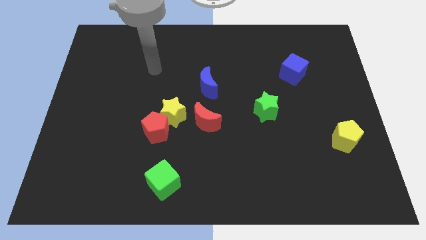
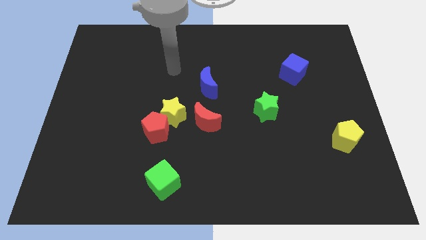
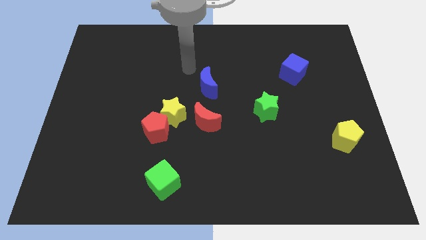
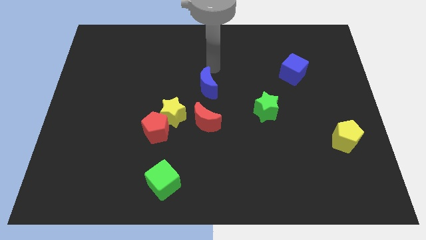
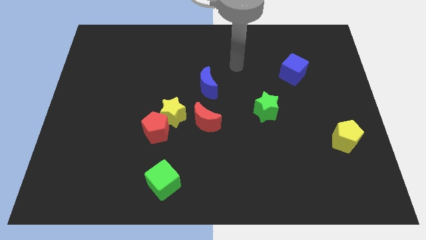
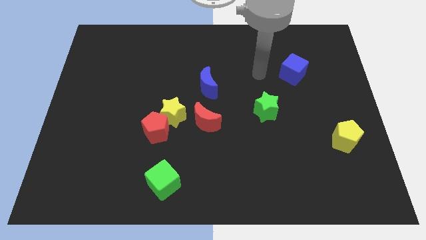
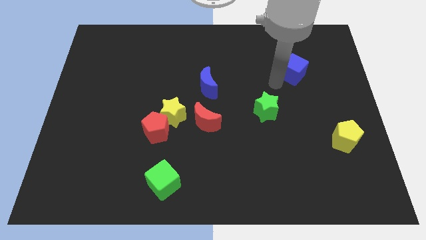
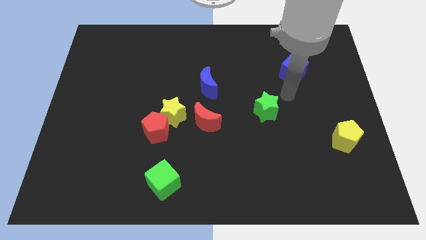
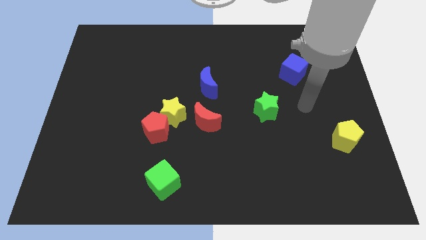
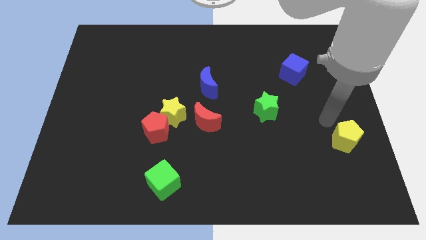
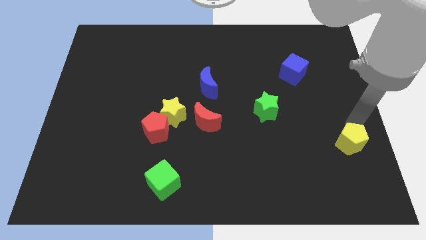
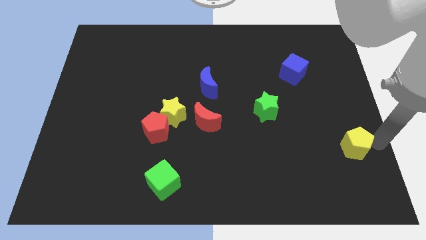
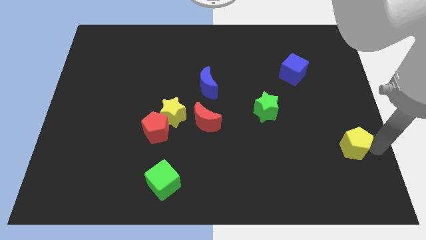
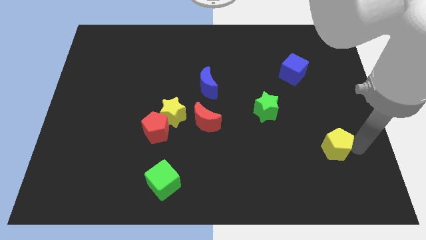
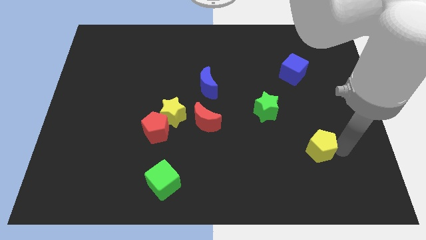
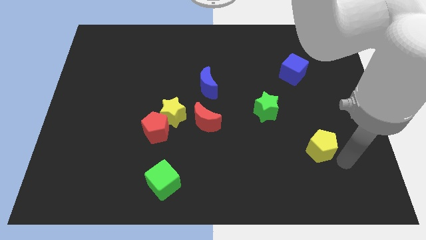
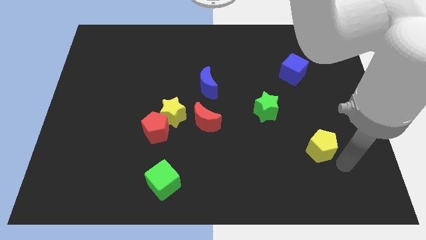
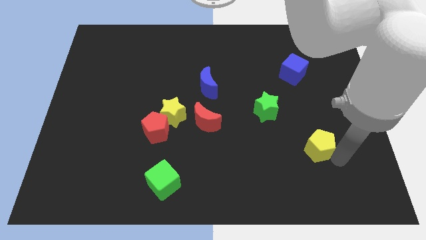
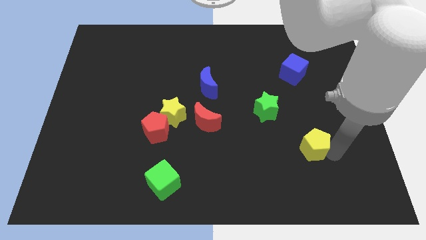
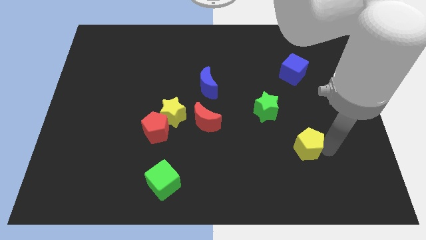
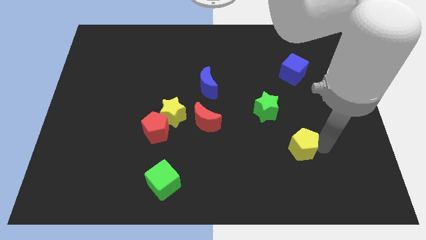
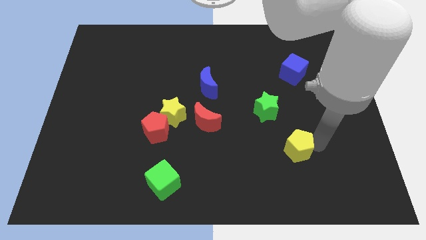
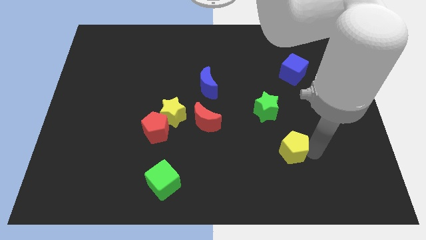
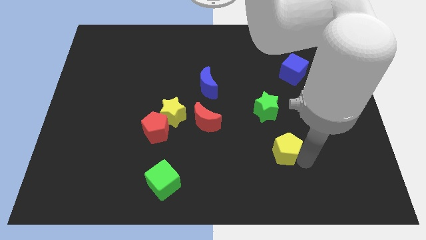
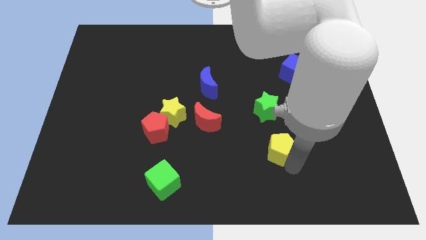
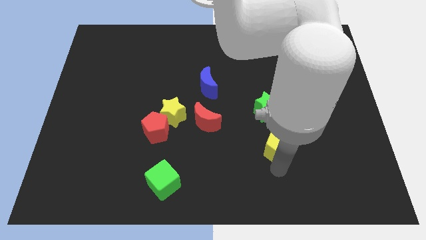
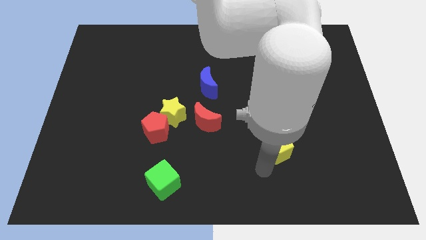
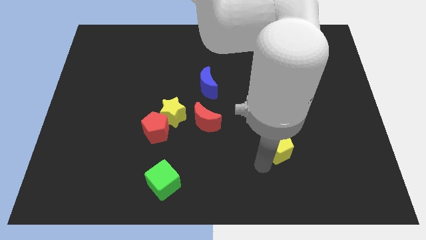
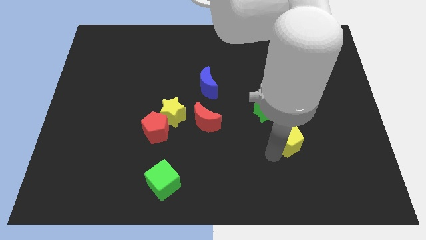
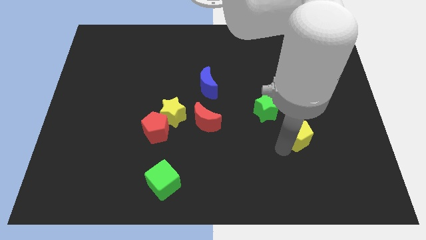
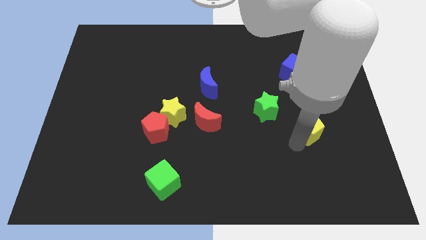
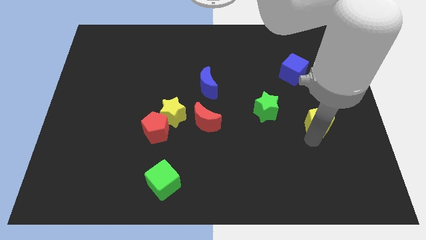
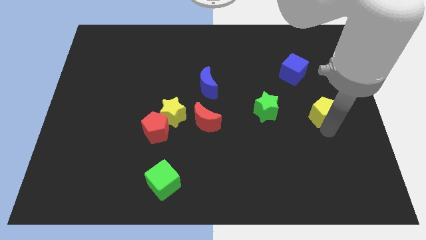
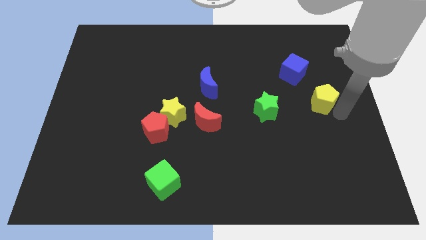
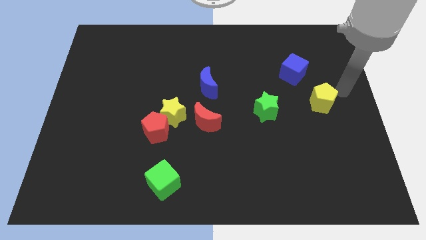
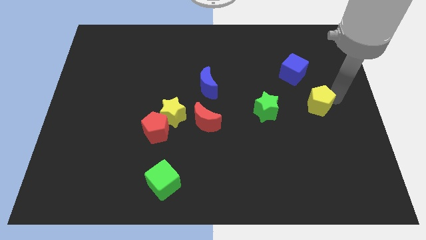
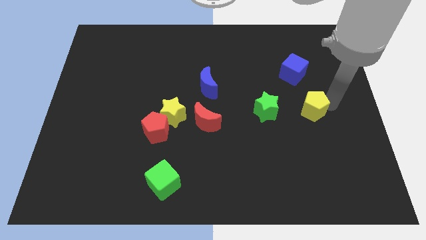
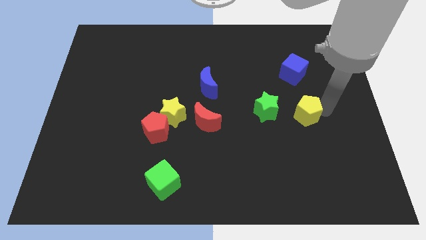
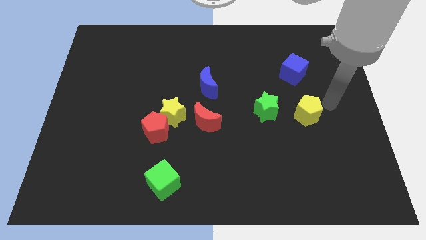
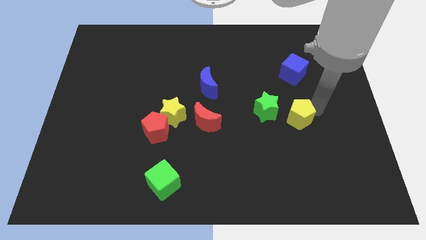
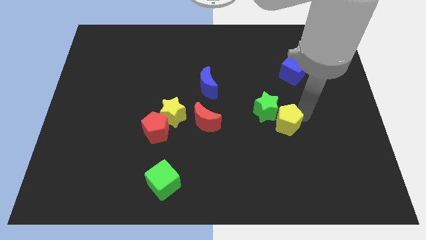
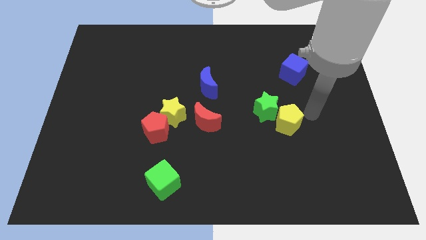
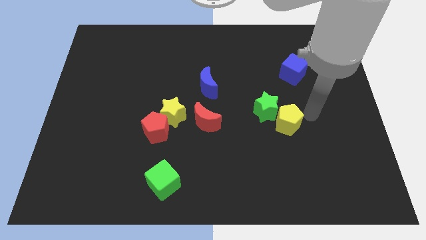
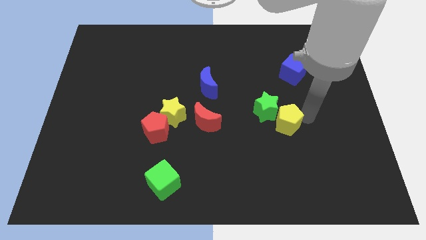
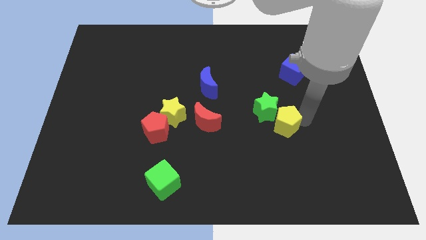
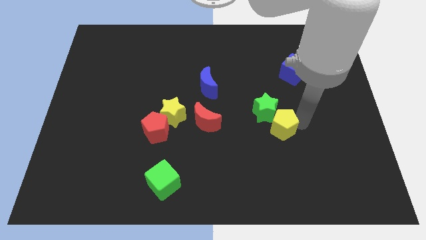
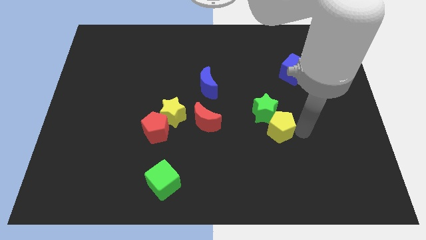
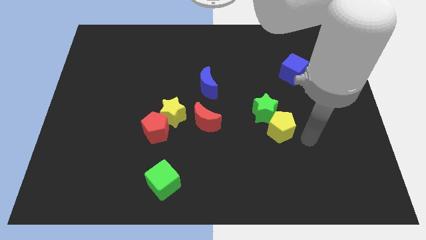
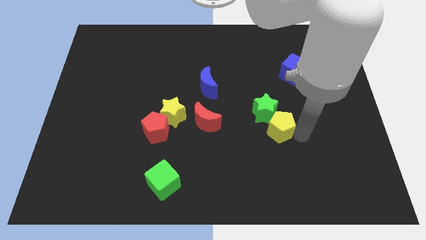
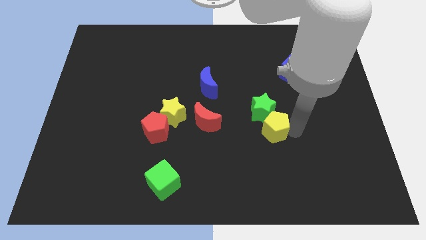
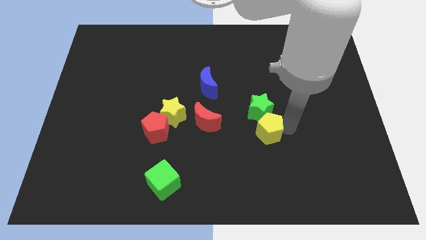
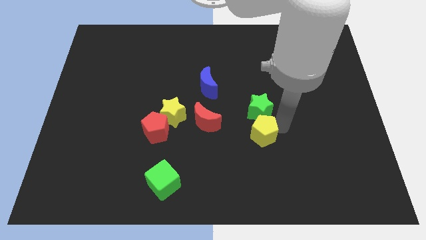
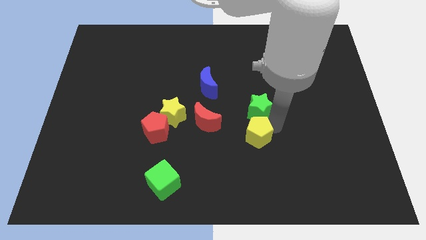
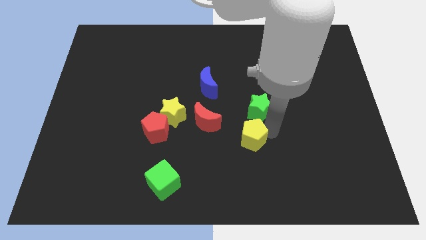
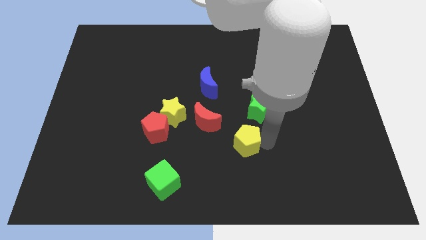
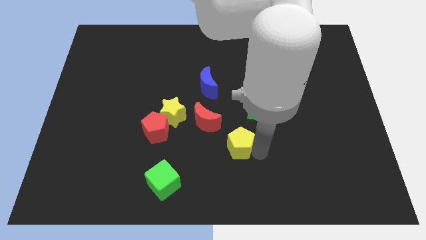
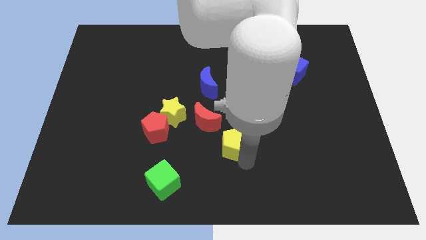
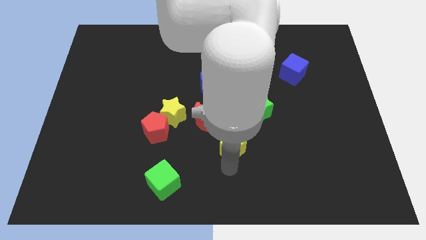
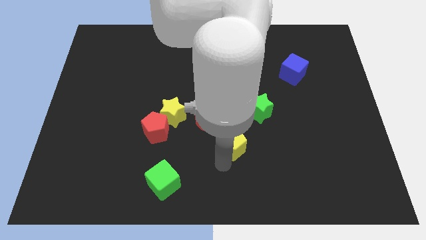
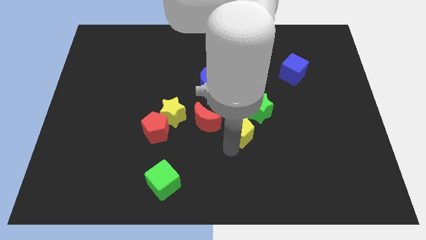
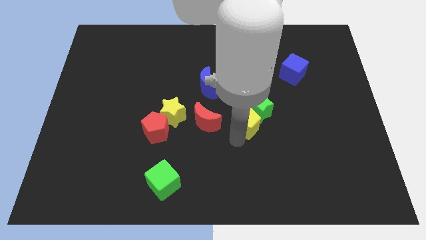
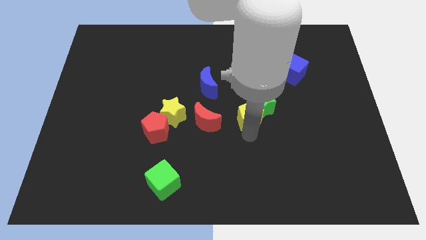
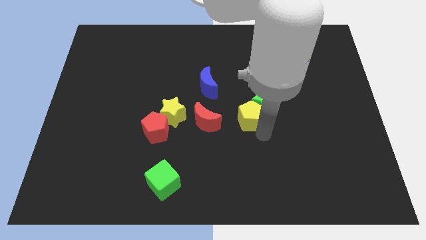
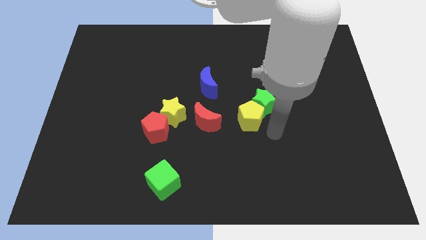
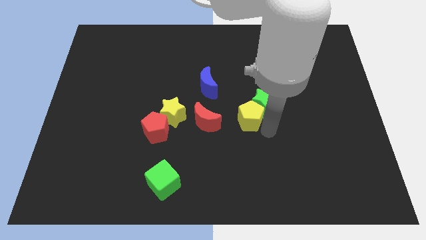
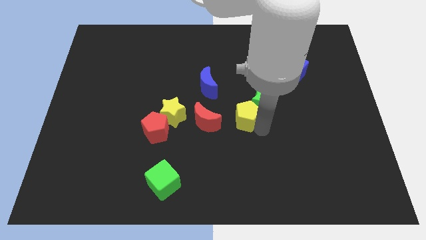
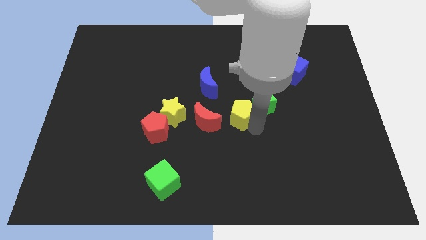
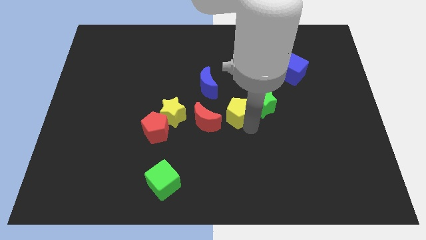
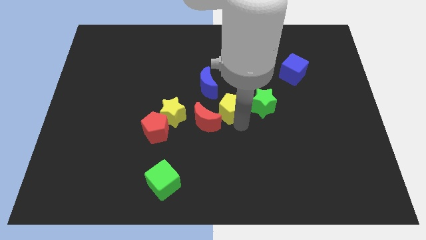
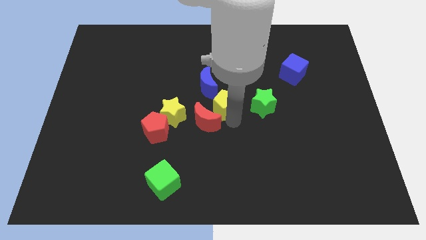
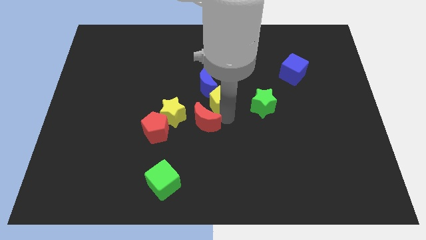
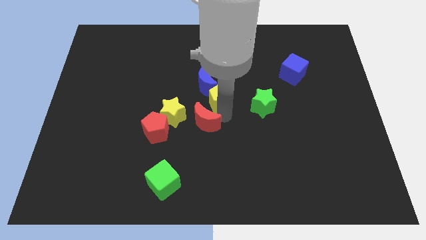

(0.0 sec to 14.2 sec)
put the yellow pentagon next to the blue moon

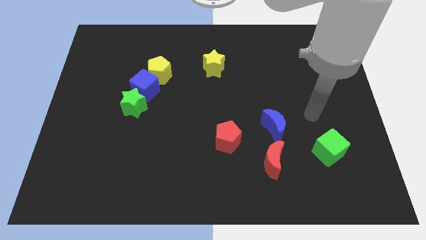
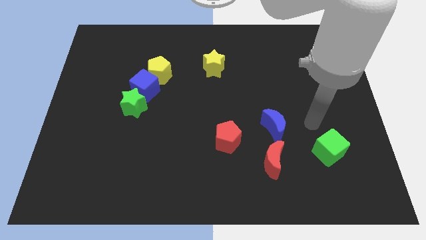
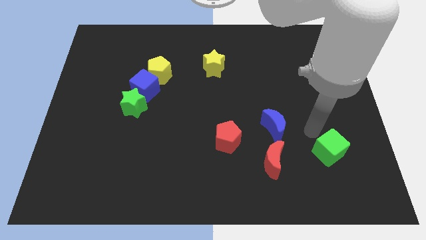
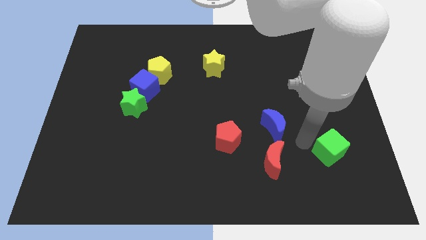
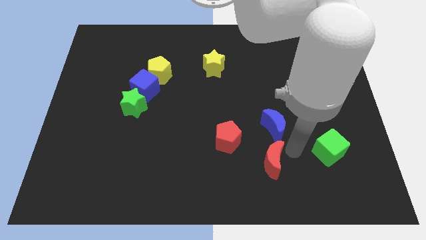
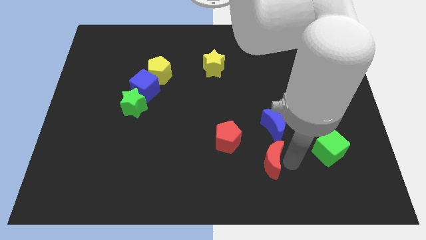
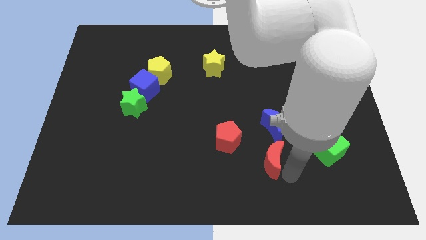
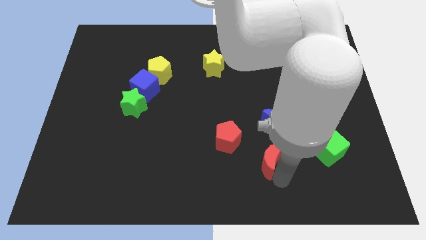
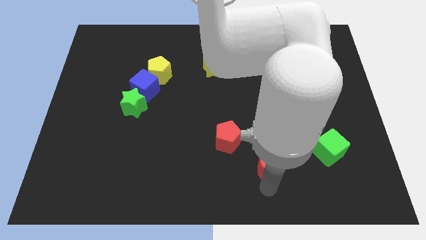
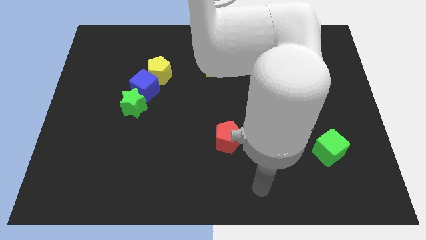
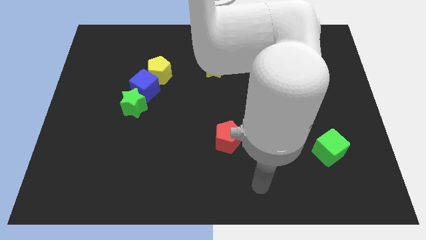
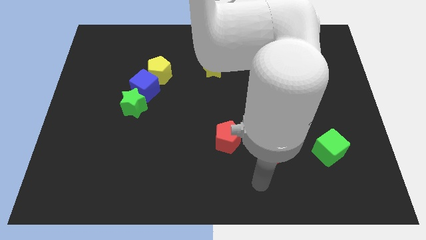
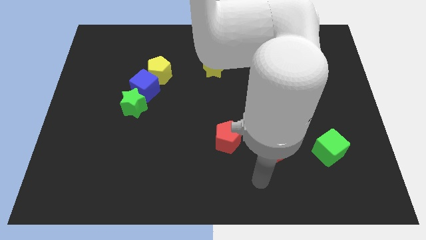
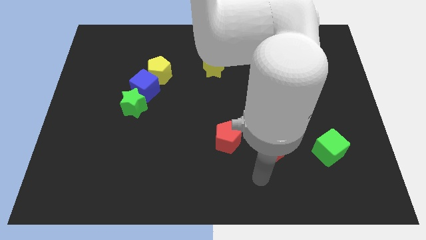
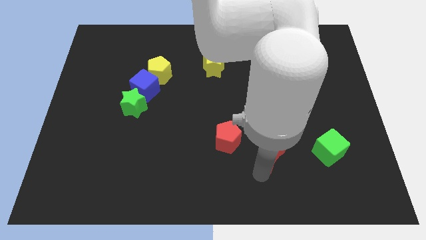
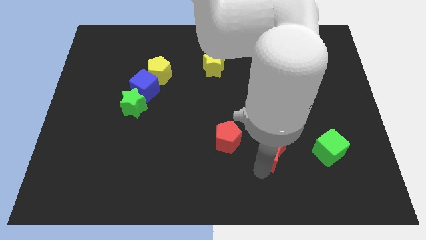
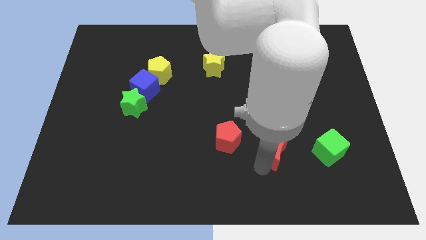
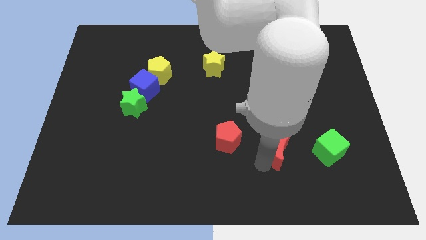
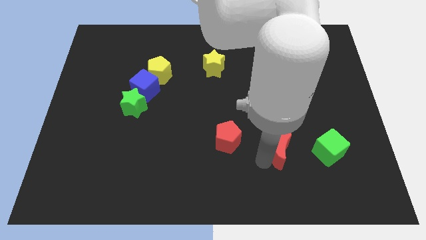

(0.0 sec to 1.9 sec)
move the red moon next to the blue moon
